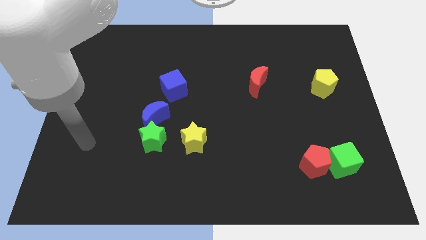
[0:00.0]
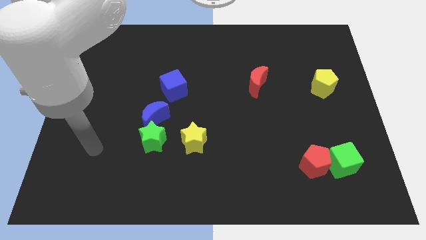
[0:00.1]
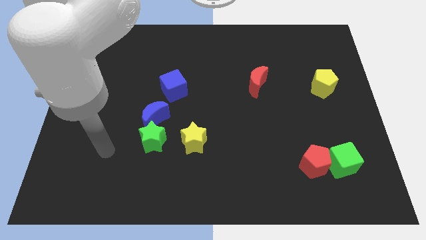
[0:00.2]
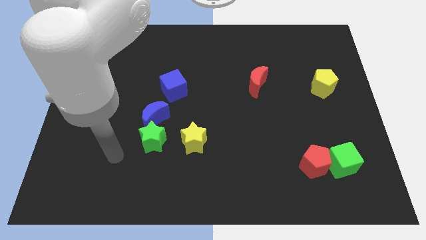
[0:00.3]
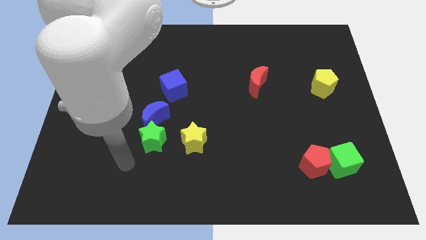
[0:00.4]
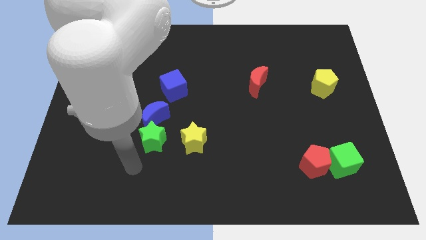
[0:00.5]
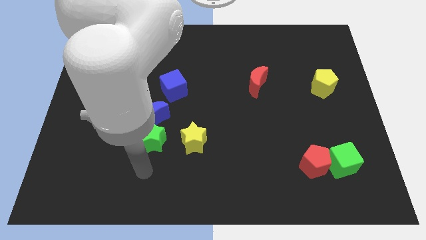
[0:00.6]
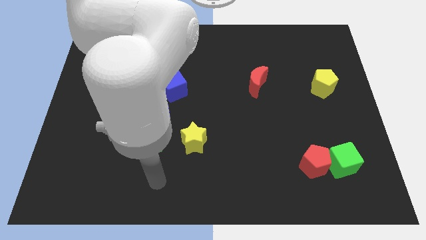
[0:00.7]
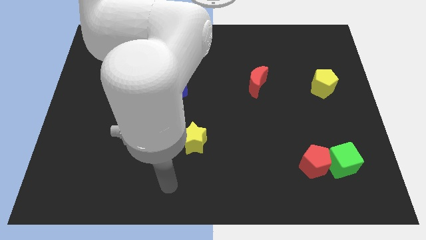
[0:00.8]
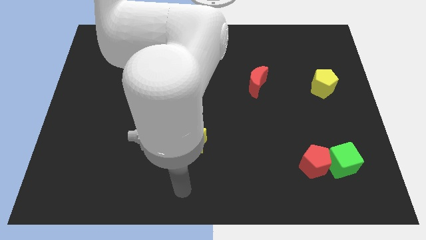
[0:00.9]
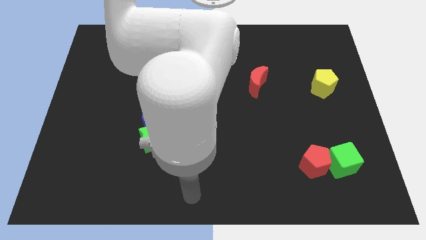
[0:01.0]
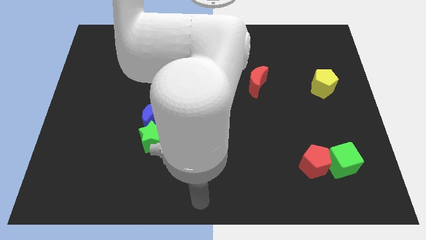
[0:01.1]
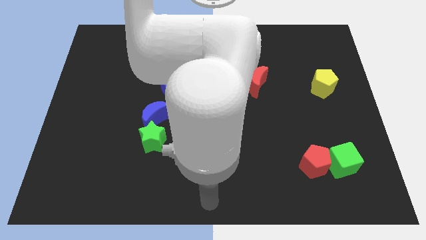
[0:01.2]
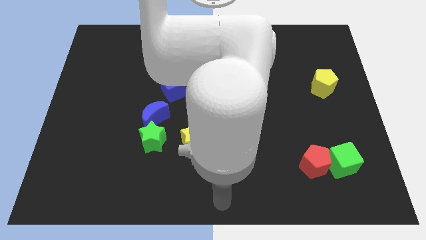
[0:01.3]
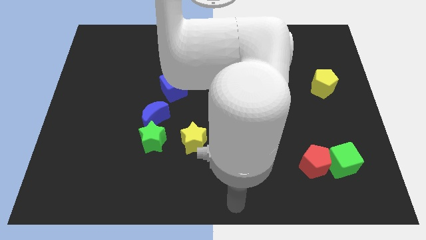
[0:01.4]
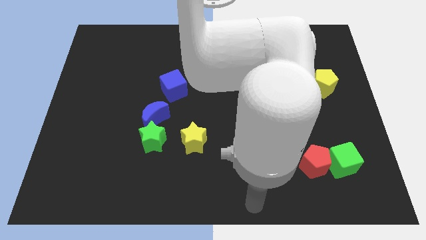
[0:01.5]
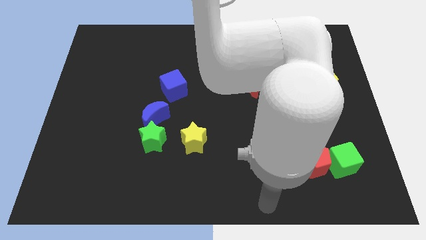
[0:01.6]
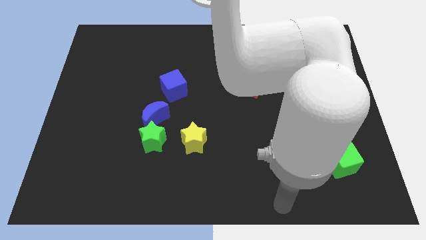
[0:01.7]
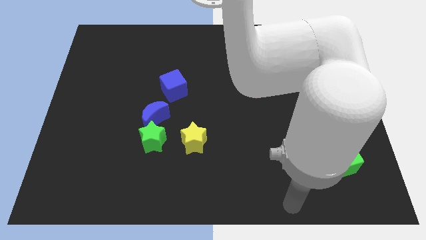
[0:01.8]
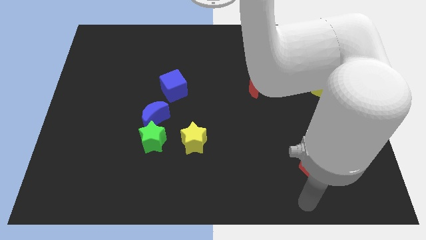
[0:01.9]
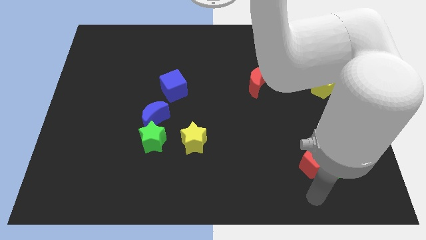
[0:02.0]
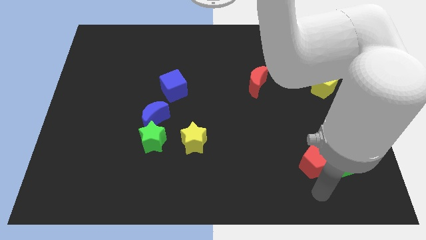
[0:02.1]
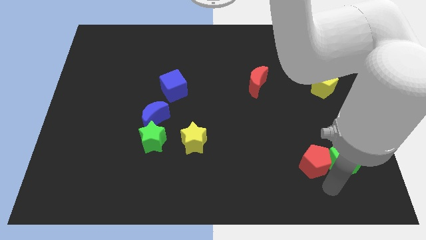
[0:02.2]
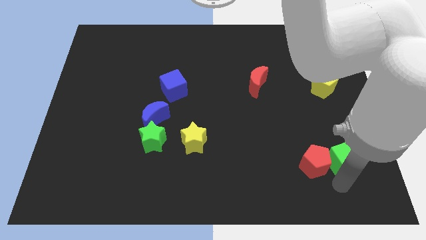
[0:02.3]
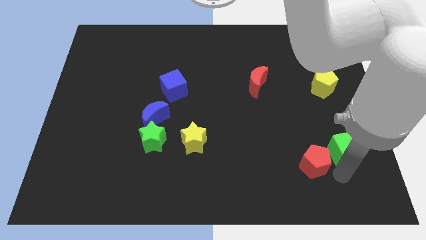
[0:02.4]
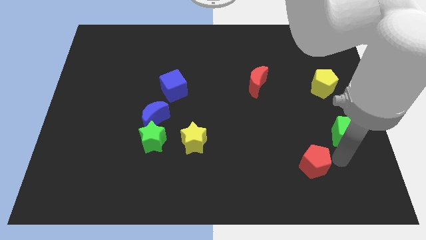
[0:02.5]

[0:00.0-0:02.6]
pull the red pentagon apart from the green cube

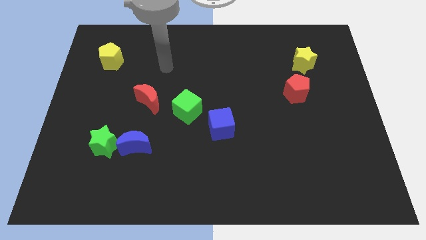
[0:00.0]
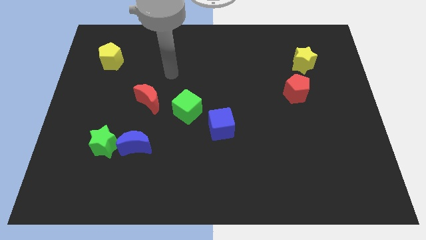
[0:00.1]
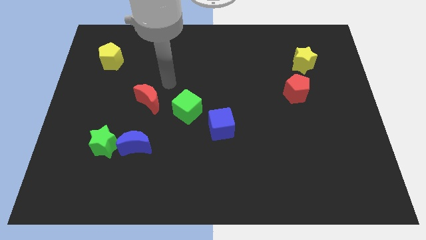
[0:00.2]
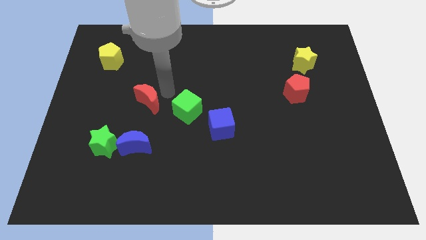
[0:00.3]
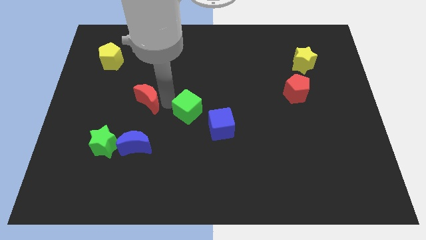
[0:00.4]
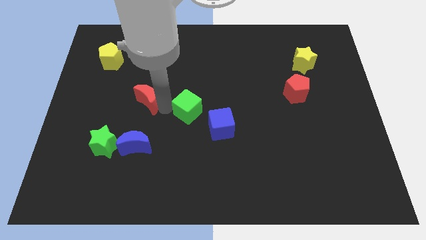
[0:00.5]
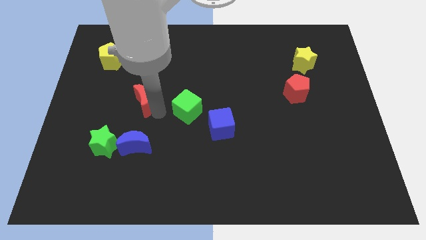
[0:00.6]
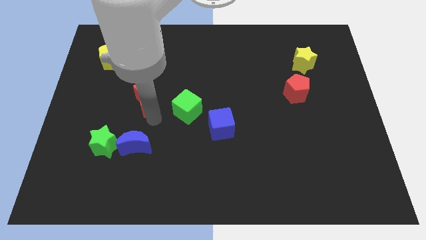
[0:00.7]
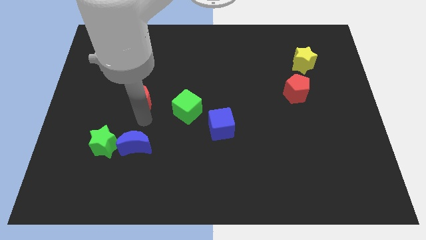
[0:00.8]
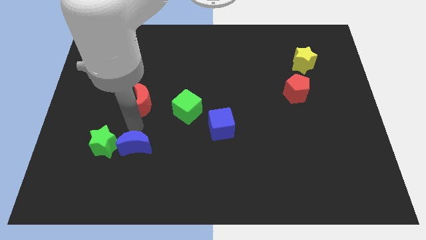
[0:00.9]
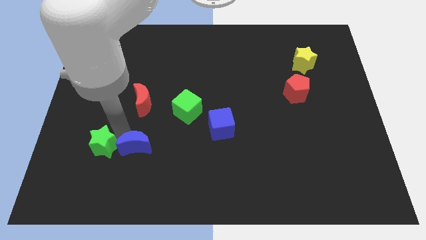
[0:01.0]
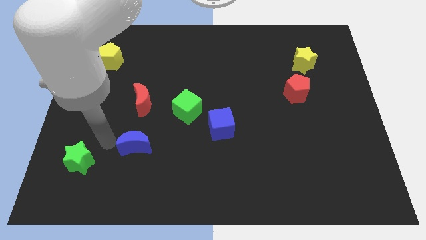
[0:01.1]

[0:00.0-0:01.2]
move the blue moon away from the green star

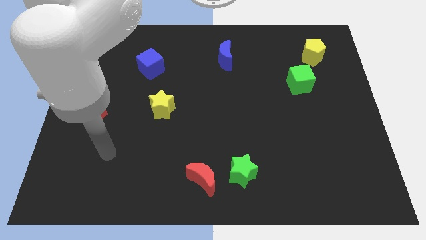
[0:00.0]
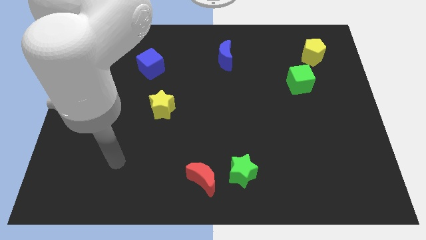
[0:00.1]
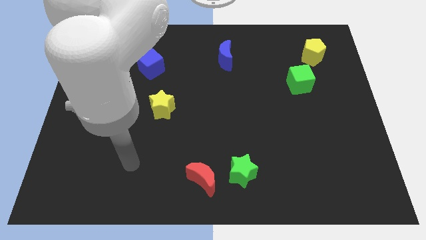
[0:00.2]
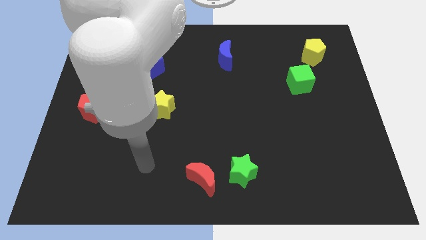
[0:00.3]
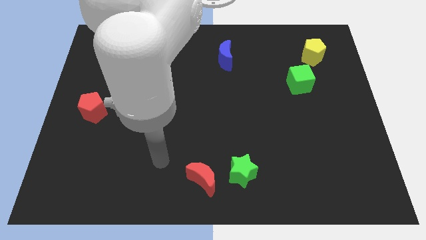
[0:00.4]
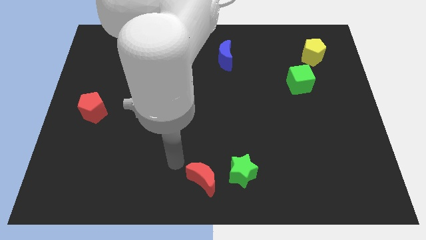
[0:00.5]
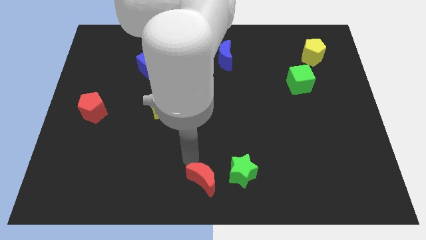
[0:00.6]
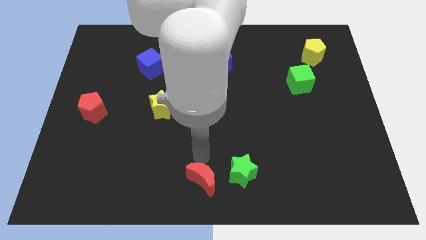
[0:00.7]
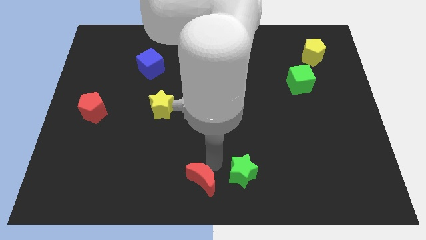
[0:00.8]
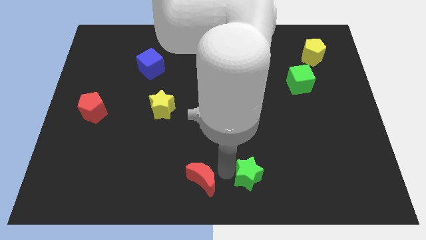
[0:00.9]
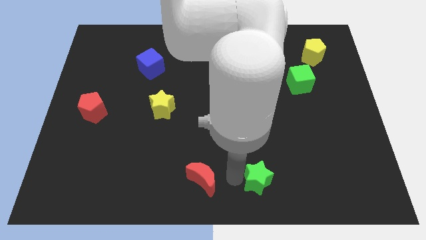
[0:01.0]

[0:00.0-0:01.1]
pull the red moon apart from the green star

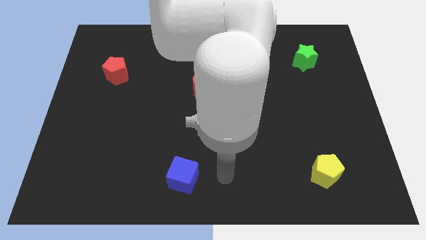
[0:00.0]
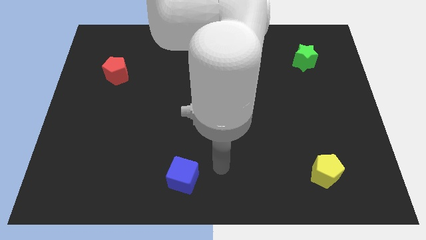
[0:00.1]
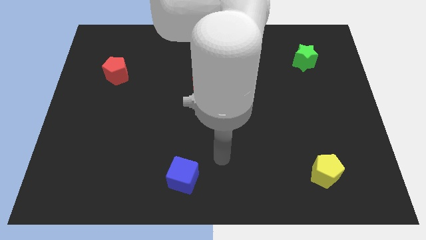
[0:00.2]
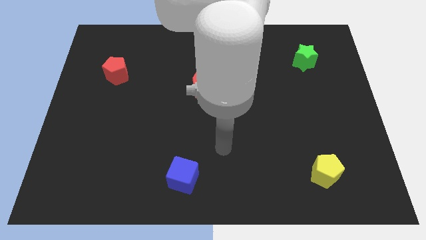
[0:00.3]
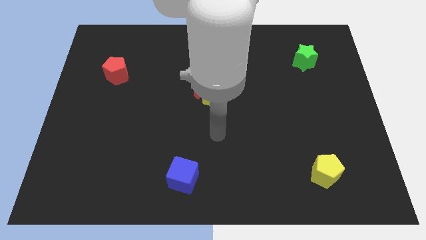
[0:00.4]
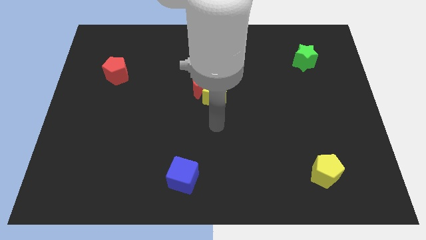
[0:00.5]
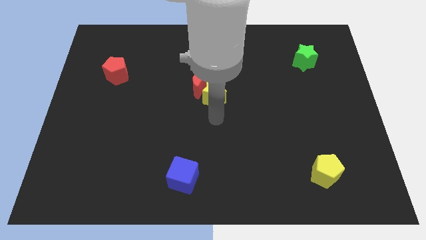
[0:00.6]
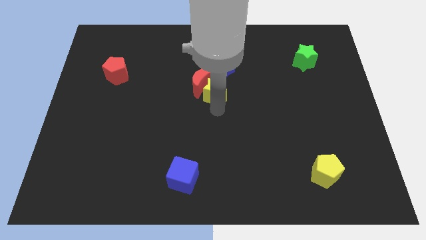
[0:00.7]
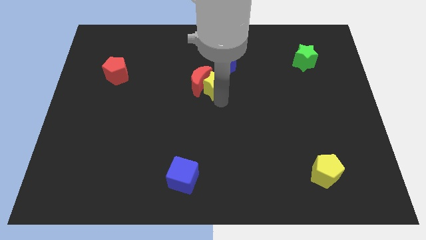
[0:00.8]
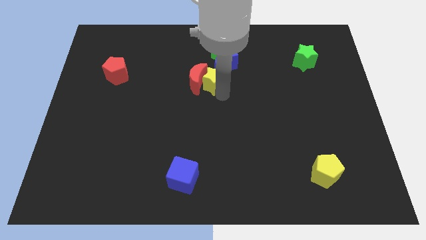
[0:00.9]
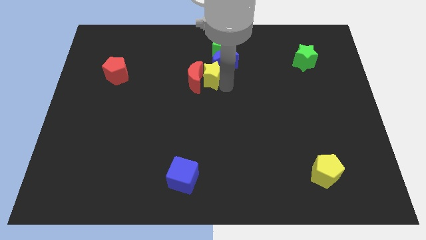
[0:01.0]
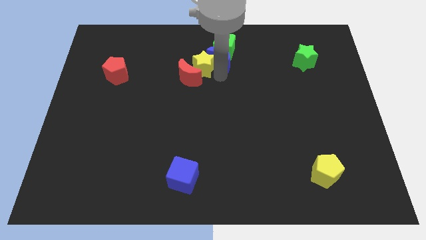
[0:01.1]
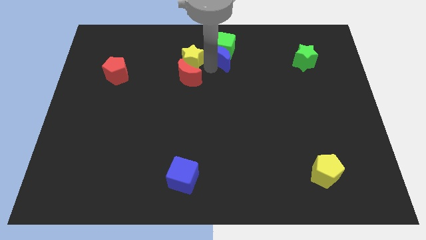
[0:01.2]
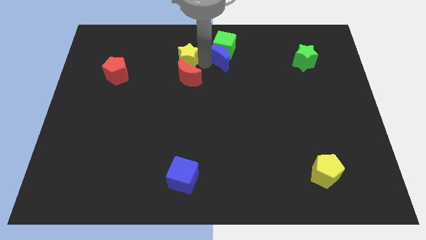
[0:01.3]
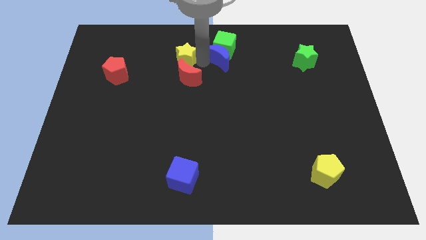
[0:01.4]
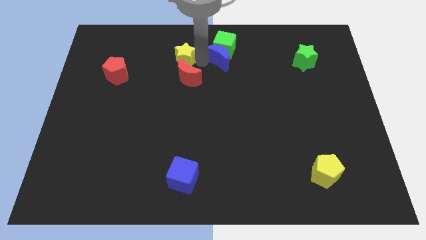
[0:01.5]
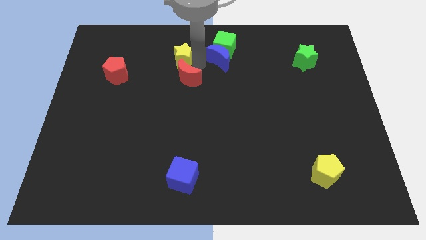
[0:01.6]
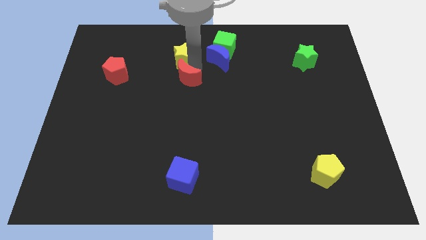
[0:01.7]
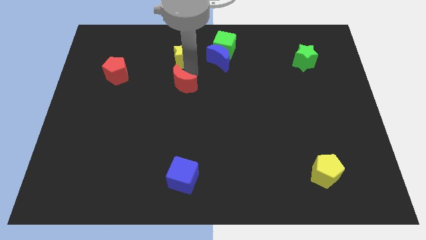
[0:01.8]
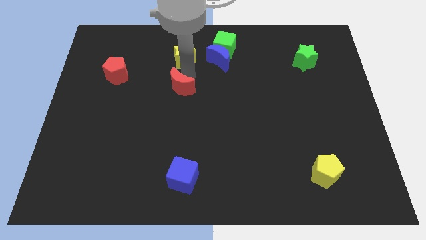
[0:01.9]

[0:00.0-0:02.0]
separate the red moon from the yellow star and blue moon

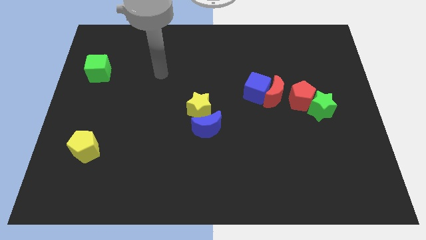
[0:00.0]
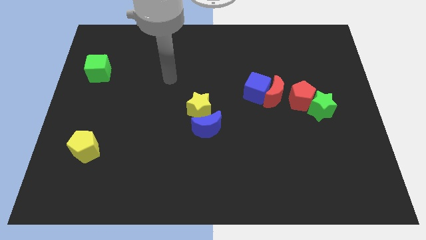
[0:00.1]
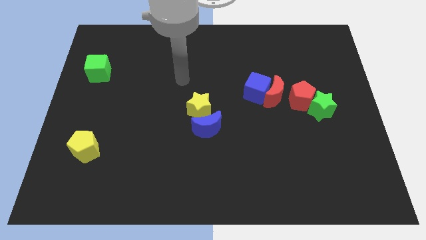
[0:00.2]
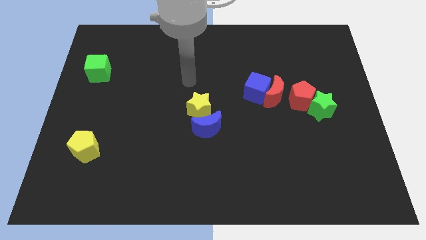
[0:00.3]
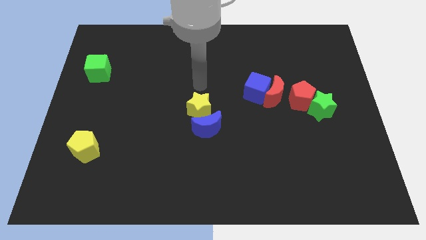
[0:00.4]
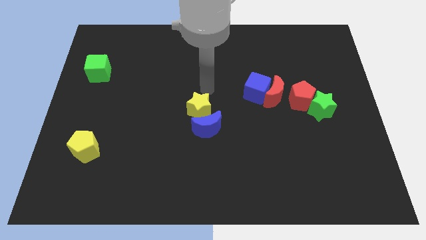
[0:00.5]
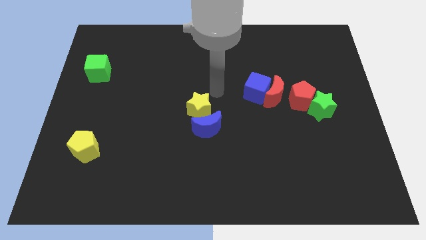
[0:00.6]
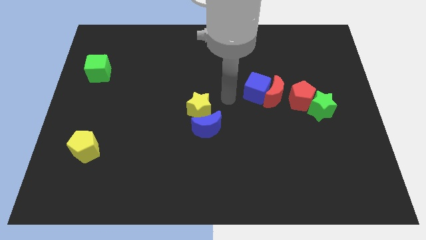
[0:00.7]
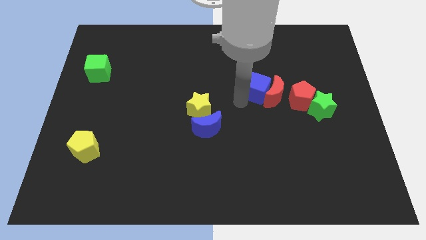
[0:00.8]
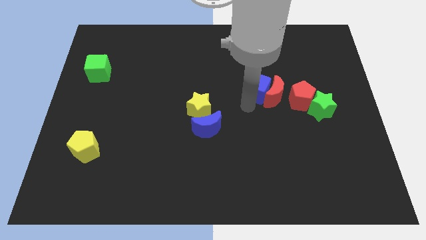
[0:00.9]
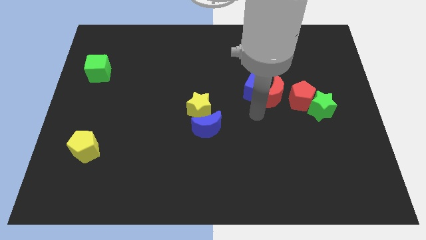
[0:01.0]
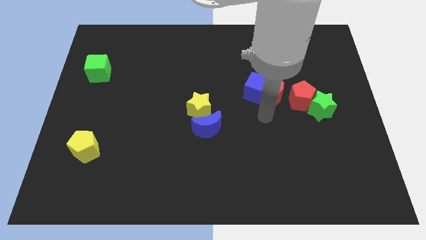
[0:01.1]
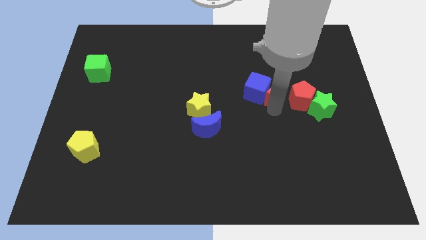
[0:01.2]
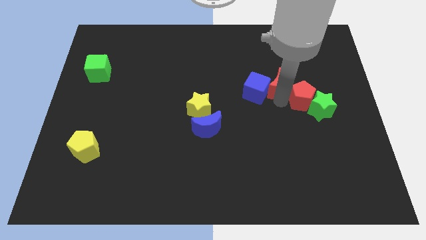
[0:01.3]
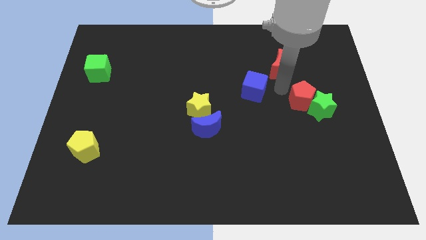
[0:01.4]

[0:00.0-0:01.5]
separate the blue cube from the red moon

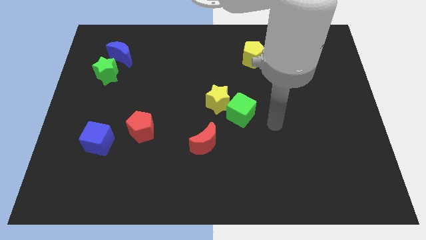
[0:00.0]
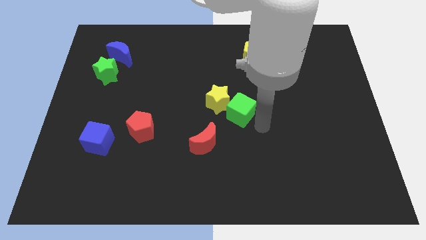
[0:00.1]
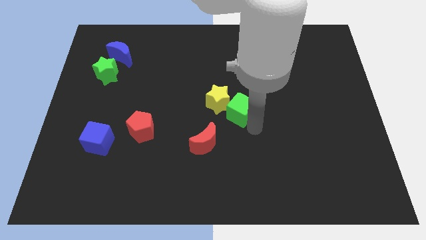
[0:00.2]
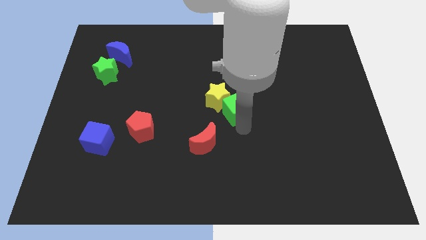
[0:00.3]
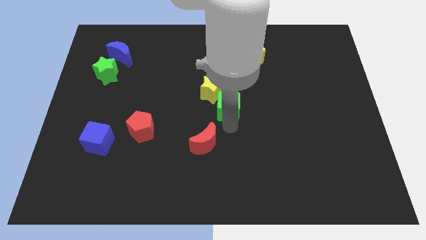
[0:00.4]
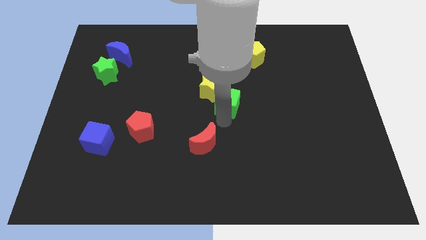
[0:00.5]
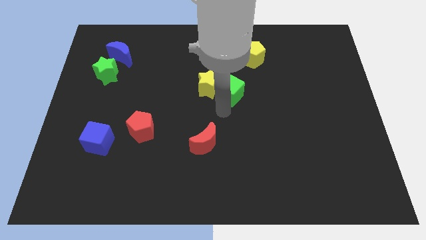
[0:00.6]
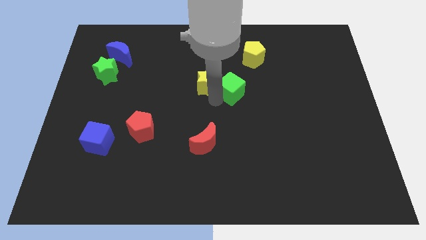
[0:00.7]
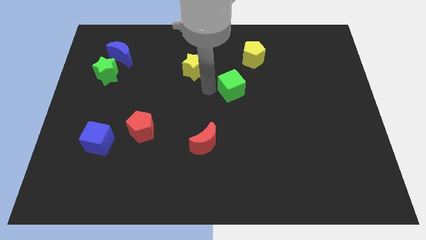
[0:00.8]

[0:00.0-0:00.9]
pull the green cube apart from the yellow star

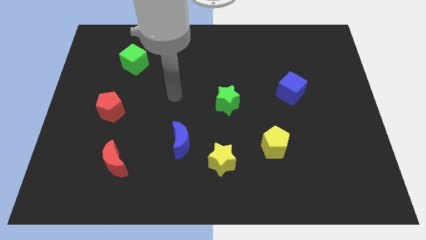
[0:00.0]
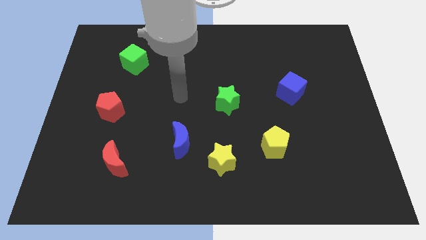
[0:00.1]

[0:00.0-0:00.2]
separate the blue moon from the yellow star
